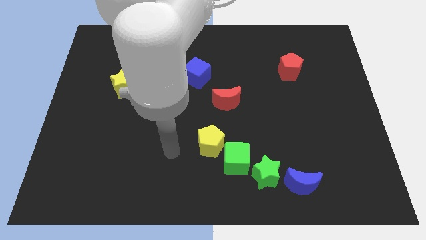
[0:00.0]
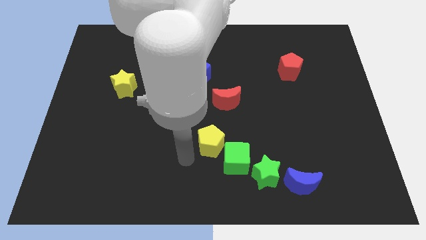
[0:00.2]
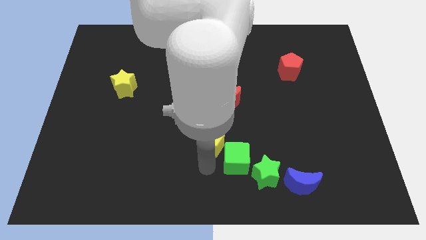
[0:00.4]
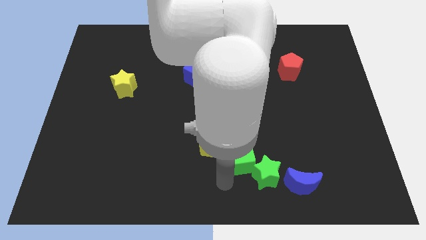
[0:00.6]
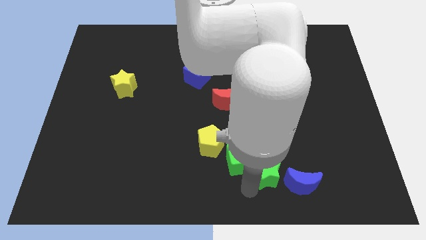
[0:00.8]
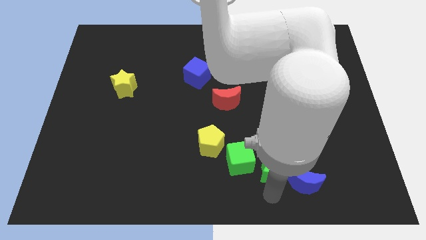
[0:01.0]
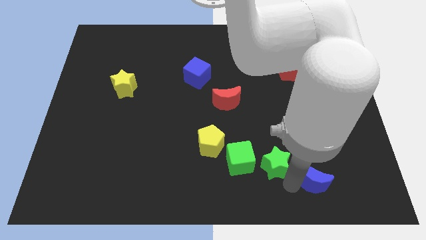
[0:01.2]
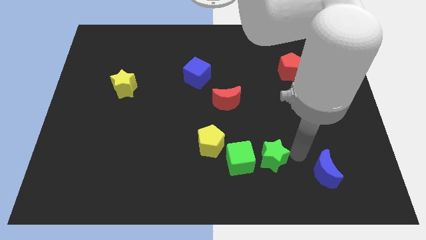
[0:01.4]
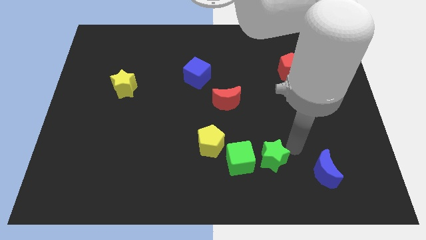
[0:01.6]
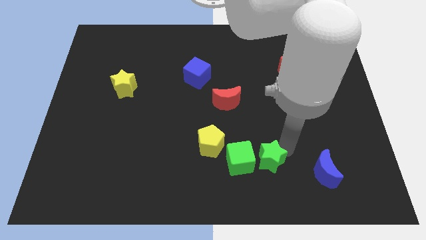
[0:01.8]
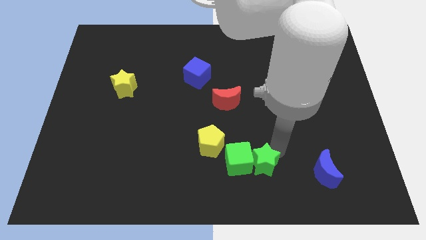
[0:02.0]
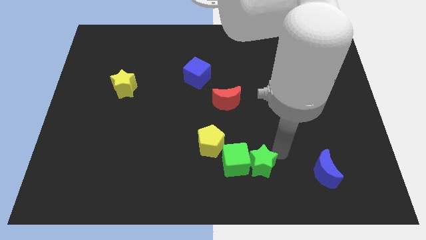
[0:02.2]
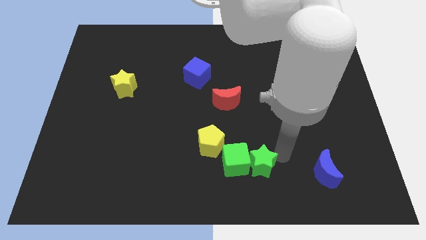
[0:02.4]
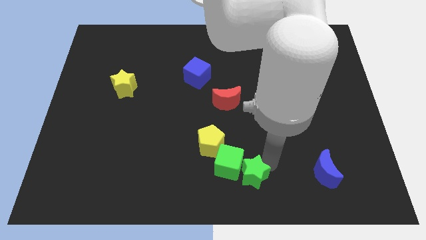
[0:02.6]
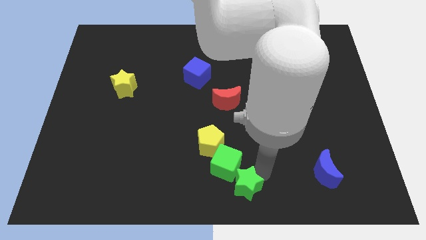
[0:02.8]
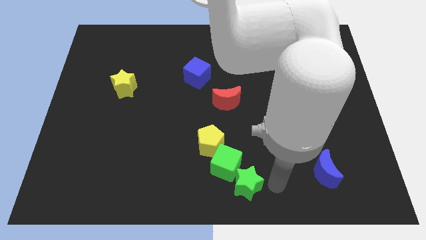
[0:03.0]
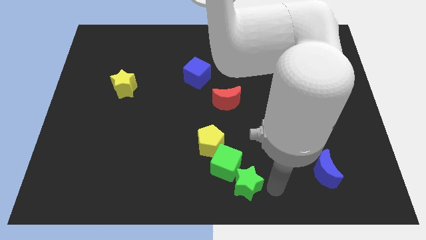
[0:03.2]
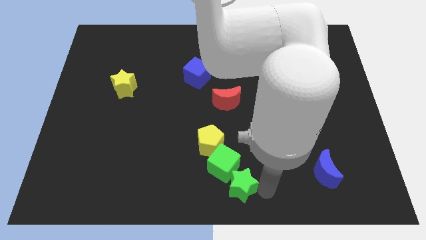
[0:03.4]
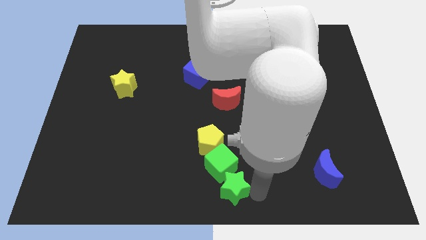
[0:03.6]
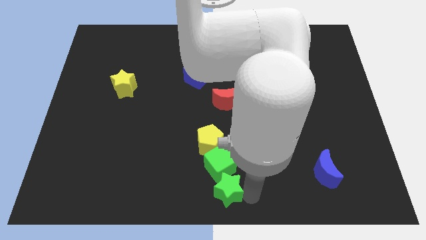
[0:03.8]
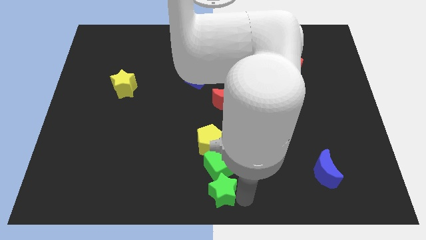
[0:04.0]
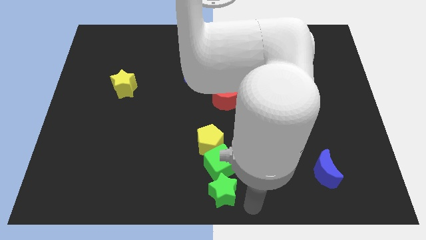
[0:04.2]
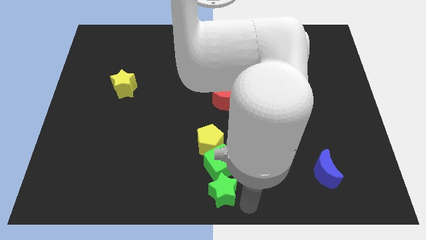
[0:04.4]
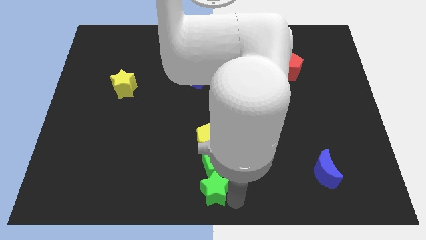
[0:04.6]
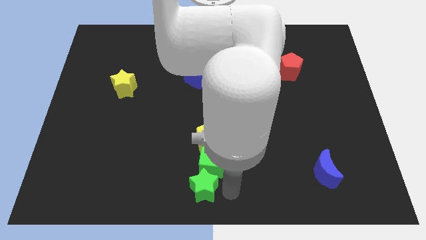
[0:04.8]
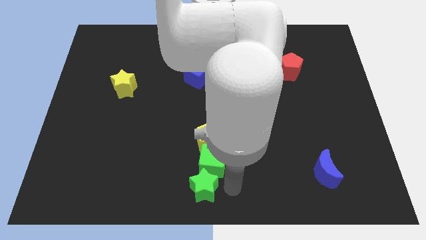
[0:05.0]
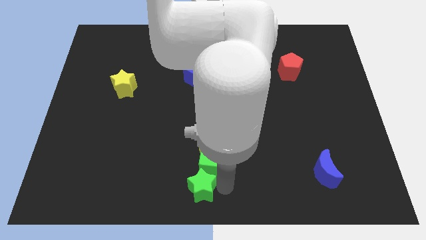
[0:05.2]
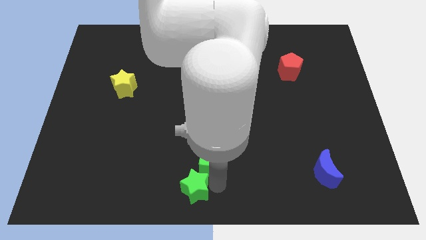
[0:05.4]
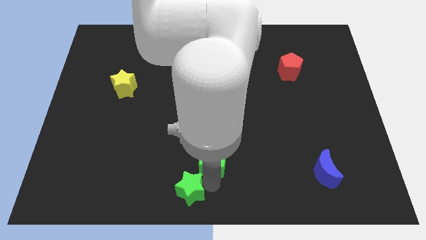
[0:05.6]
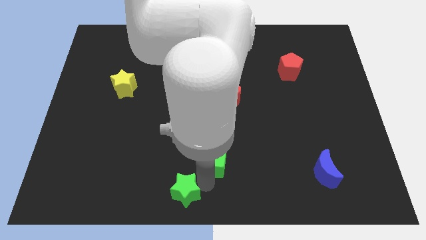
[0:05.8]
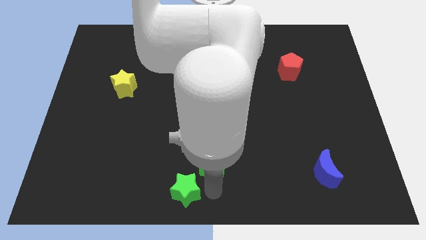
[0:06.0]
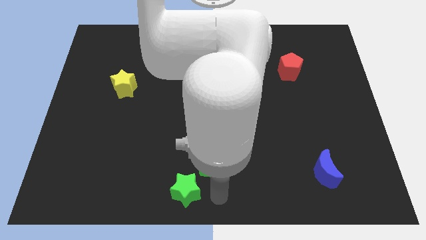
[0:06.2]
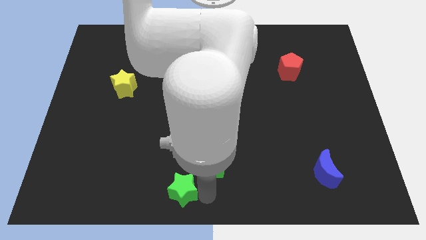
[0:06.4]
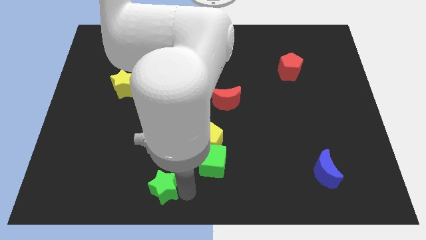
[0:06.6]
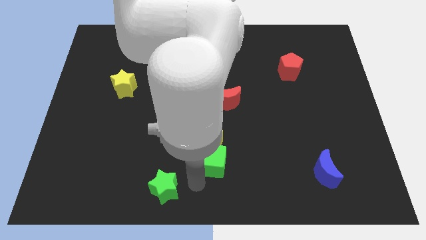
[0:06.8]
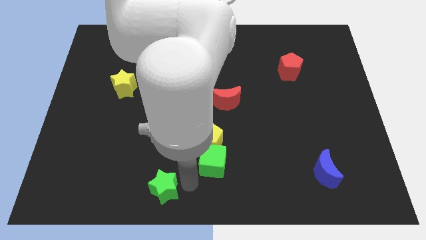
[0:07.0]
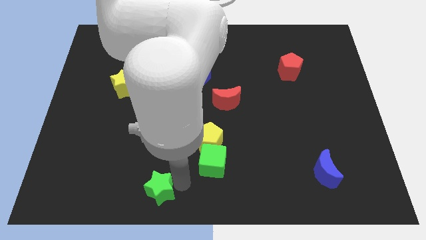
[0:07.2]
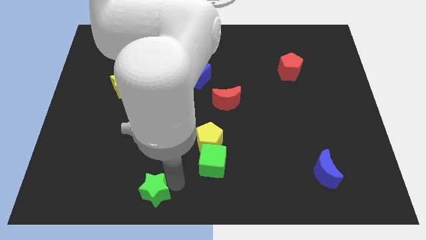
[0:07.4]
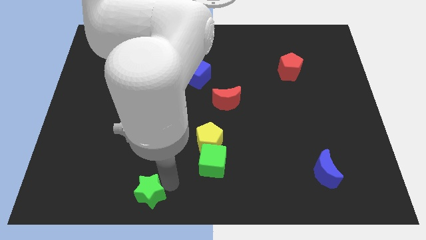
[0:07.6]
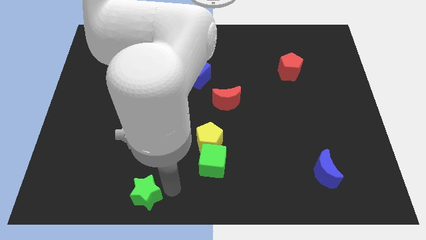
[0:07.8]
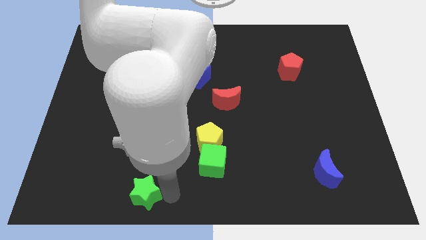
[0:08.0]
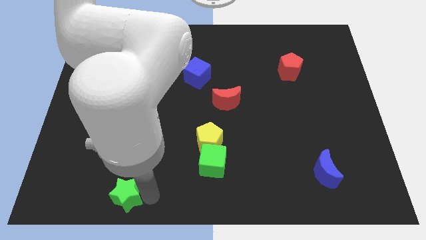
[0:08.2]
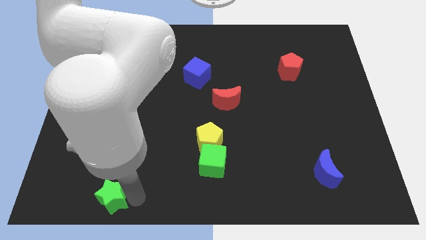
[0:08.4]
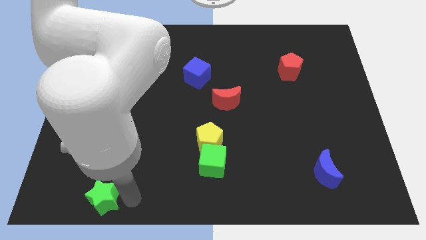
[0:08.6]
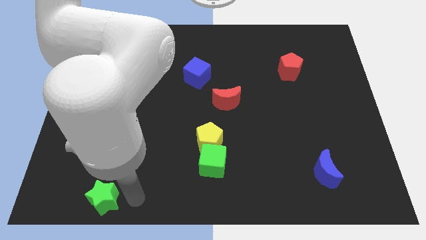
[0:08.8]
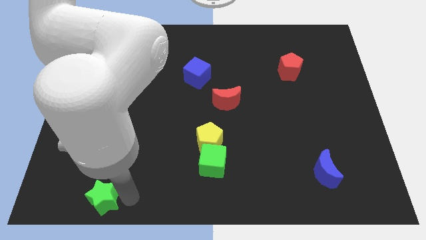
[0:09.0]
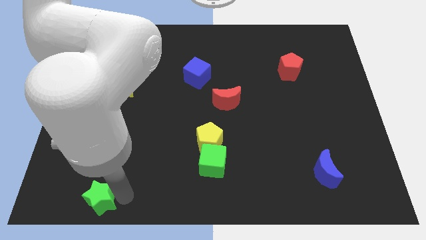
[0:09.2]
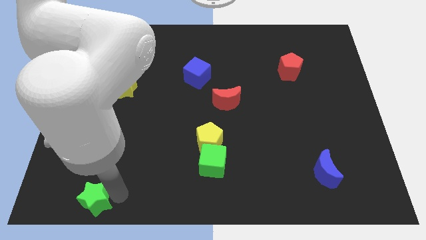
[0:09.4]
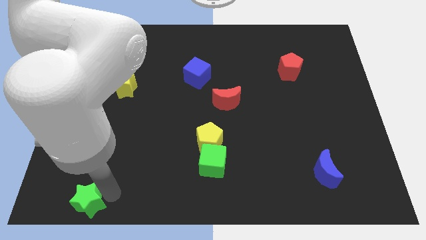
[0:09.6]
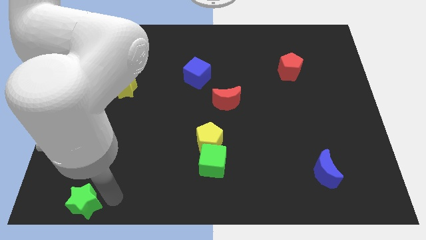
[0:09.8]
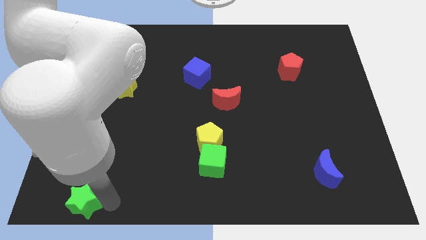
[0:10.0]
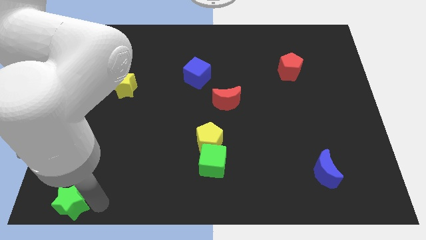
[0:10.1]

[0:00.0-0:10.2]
push the green star to the lower left corner
